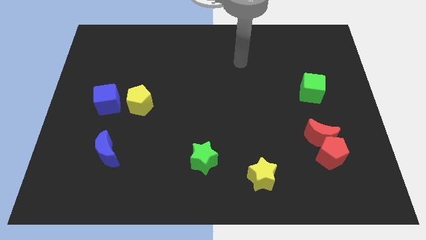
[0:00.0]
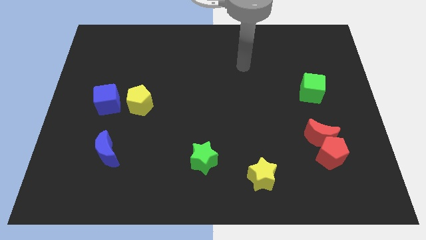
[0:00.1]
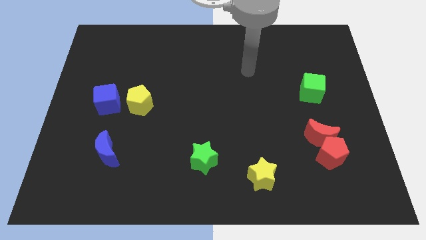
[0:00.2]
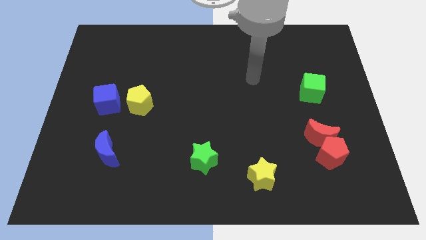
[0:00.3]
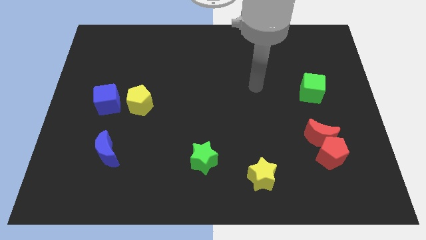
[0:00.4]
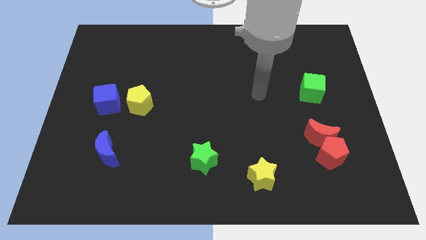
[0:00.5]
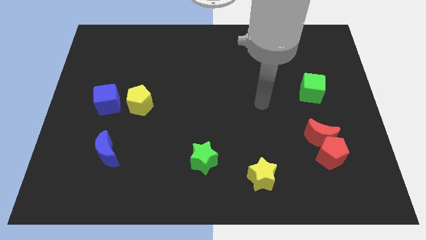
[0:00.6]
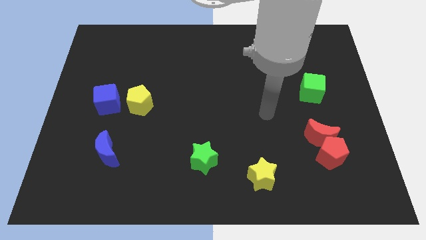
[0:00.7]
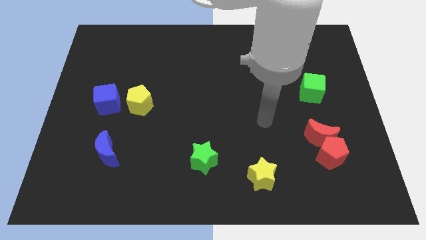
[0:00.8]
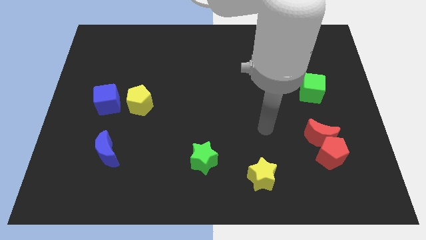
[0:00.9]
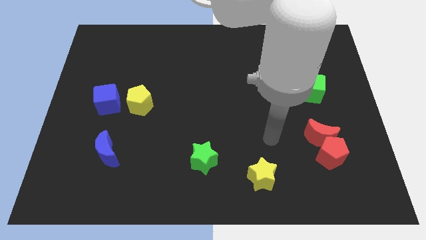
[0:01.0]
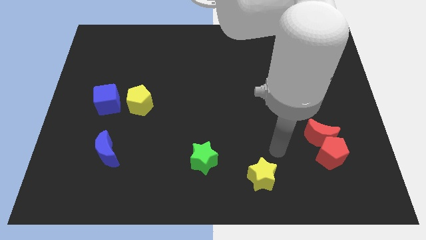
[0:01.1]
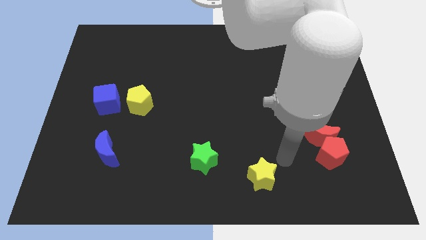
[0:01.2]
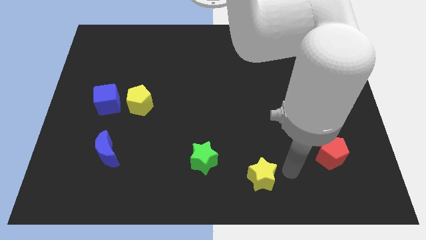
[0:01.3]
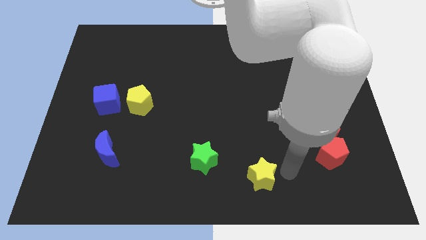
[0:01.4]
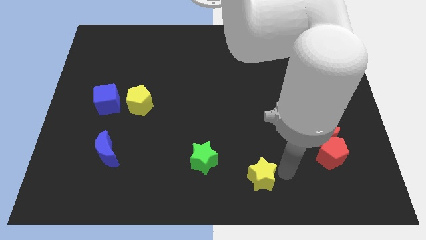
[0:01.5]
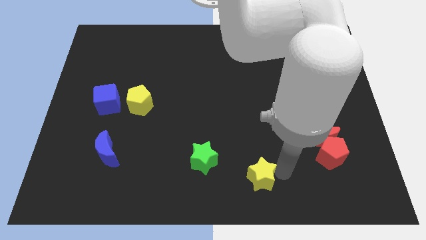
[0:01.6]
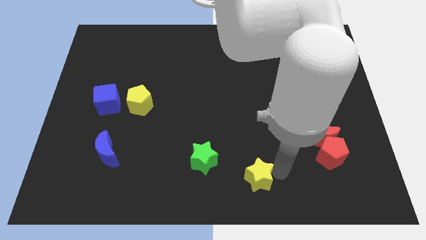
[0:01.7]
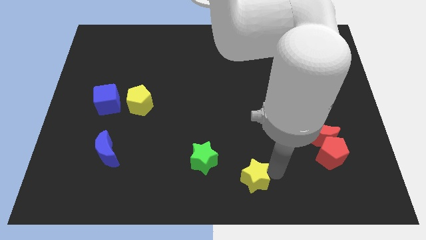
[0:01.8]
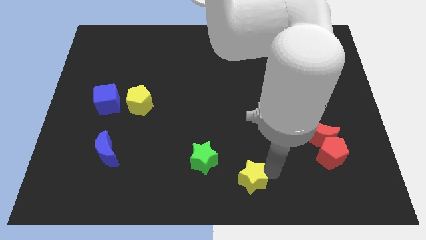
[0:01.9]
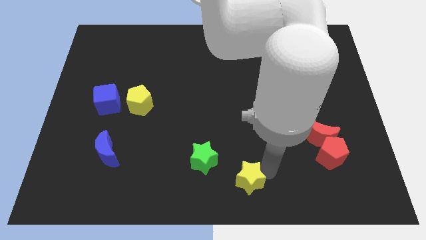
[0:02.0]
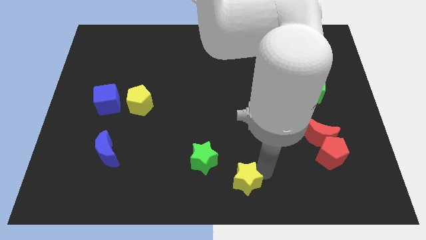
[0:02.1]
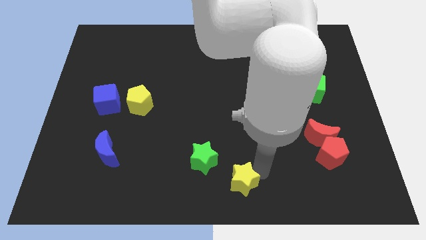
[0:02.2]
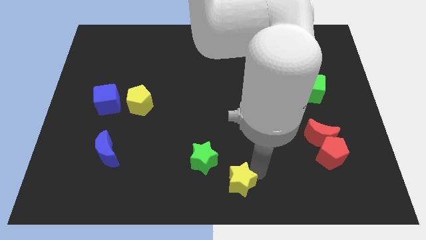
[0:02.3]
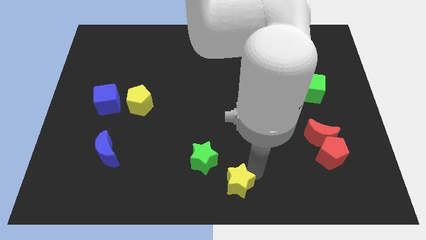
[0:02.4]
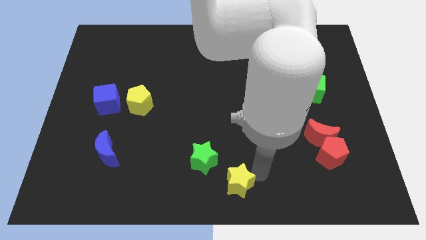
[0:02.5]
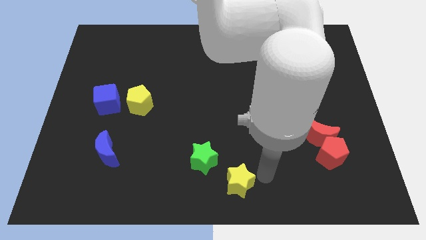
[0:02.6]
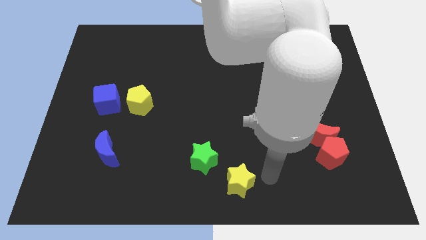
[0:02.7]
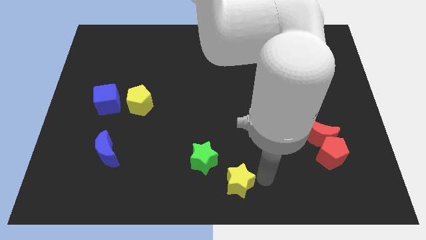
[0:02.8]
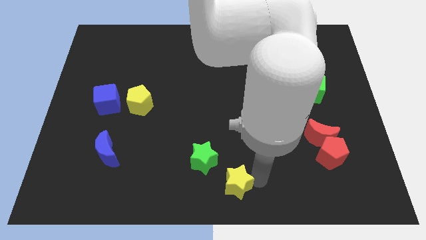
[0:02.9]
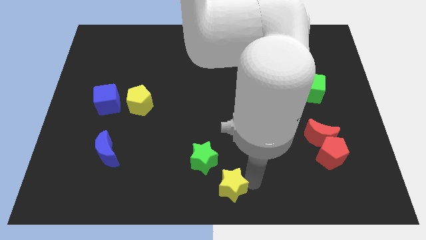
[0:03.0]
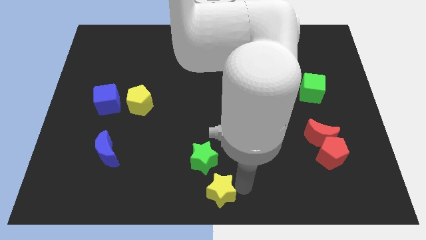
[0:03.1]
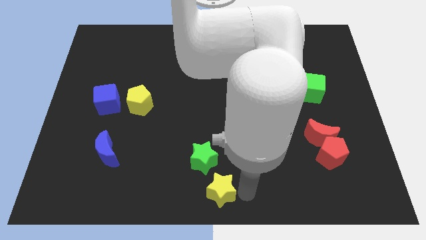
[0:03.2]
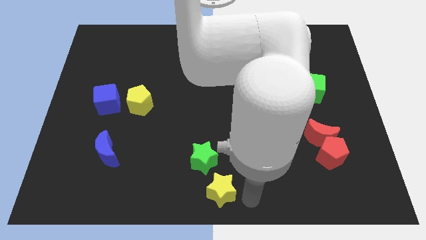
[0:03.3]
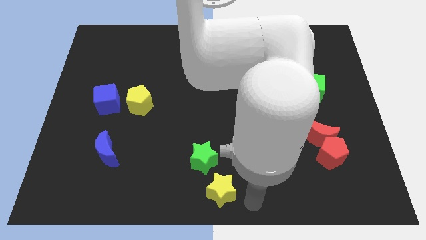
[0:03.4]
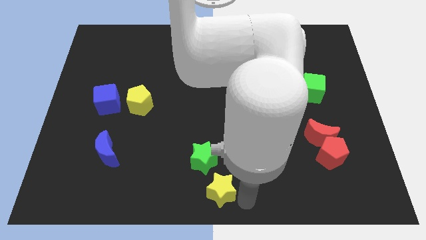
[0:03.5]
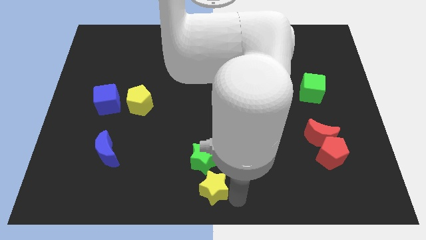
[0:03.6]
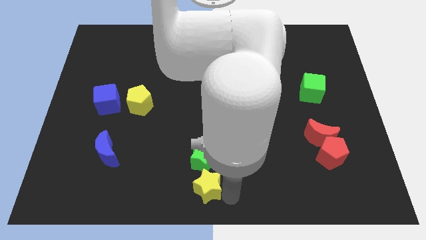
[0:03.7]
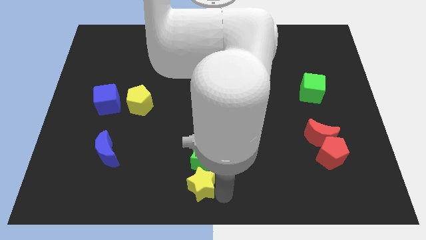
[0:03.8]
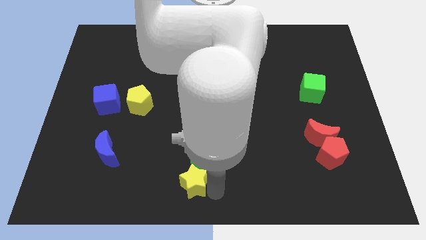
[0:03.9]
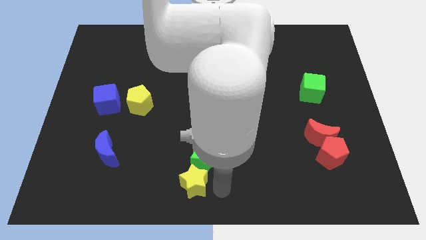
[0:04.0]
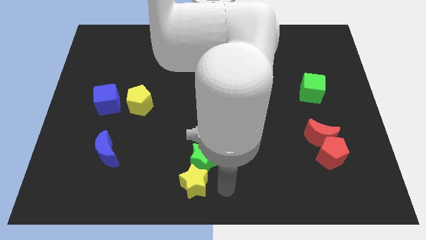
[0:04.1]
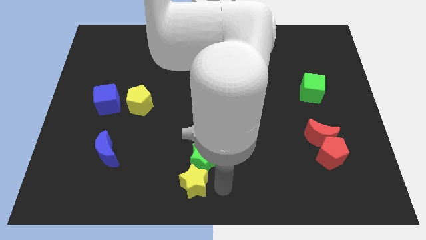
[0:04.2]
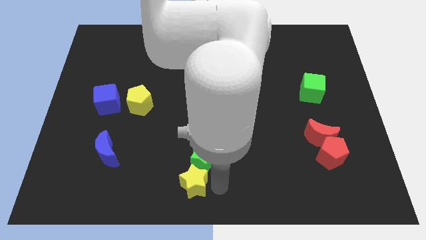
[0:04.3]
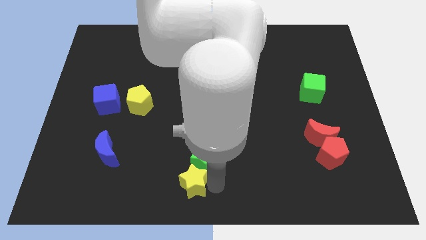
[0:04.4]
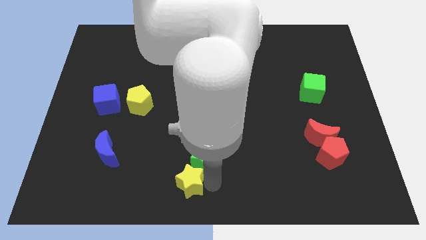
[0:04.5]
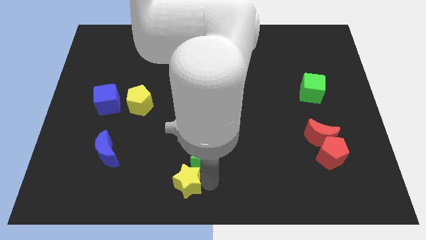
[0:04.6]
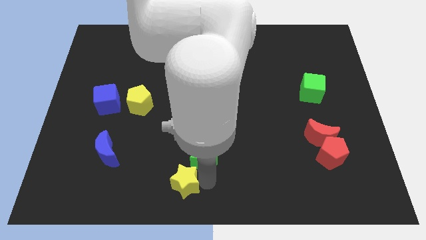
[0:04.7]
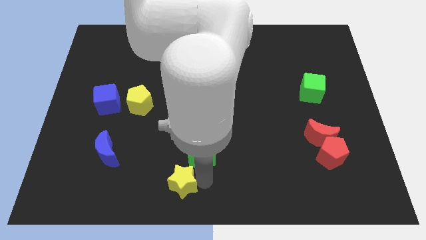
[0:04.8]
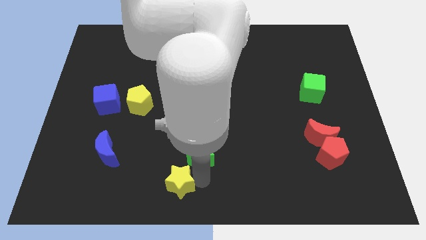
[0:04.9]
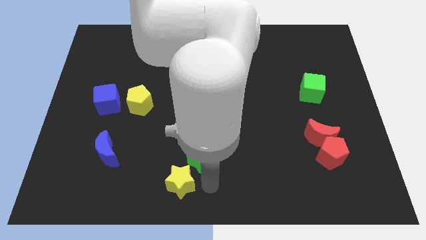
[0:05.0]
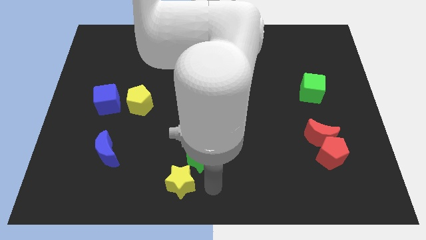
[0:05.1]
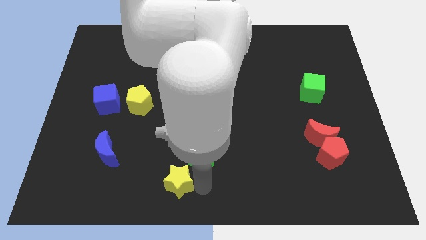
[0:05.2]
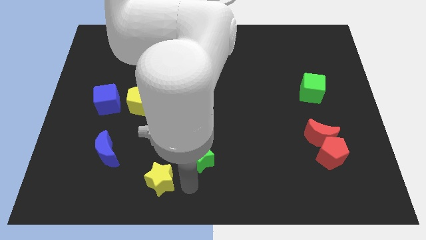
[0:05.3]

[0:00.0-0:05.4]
slide the yellow star to the left

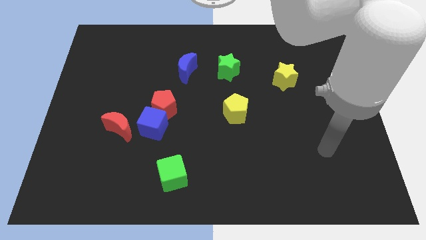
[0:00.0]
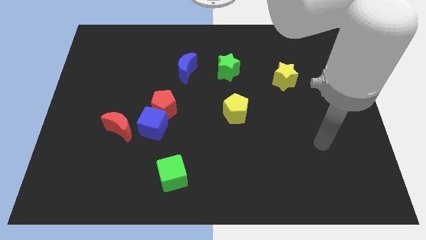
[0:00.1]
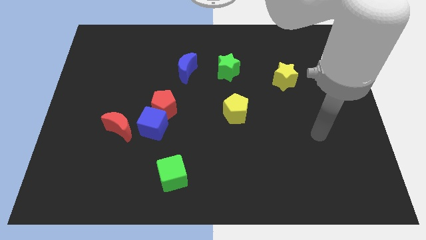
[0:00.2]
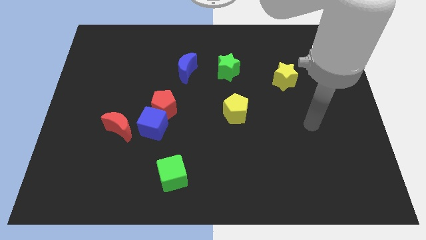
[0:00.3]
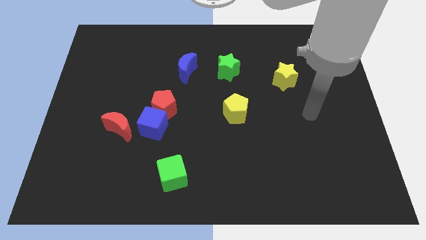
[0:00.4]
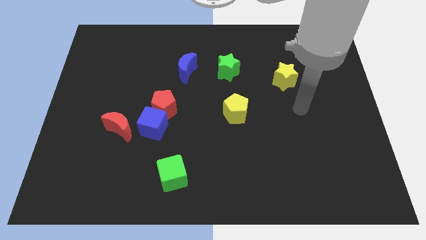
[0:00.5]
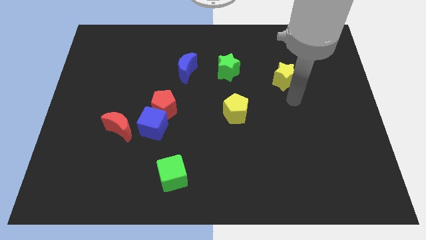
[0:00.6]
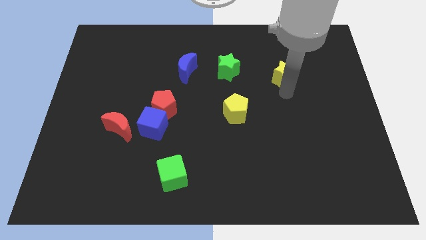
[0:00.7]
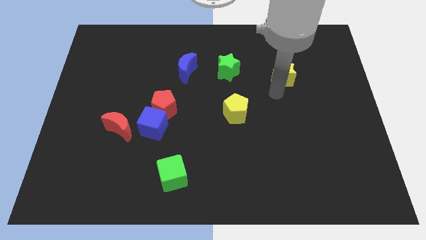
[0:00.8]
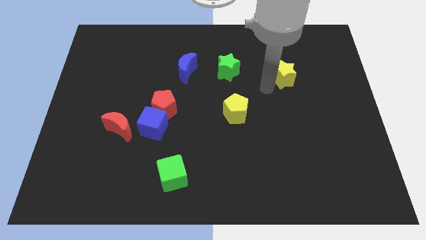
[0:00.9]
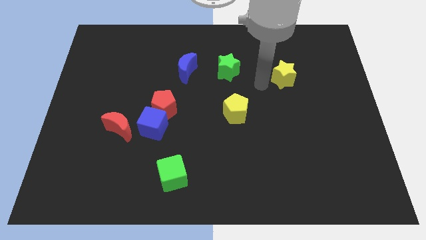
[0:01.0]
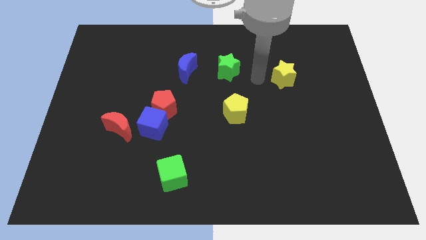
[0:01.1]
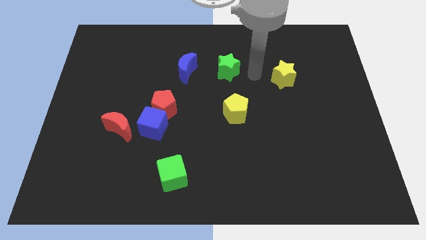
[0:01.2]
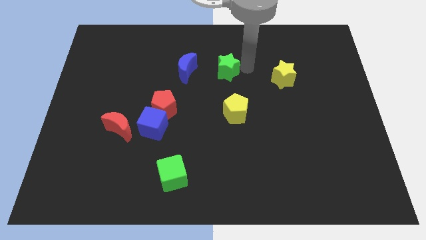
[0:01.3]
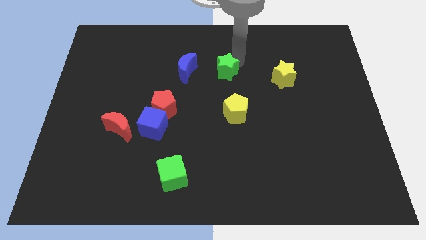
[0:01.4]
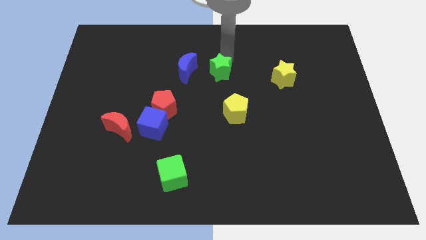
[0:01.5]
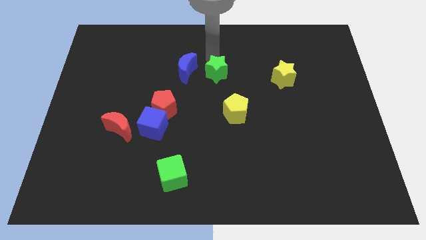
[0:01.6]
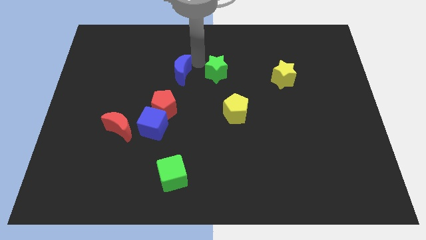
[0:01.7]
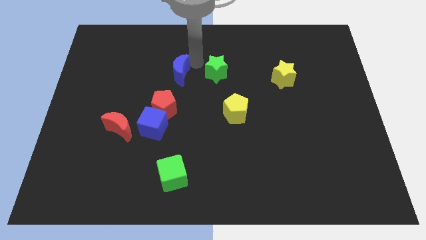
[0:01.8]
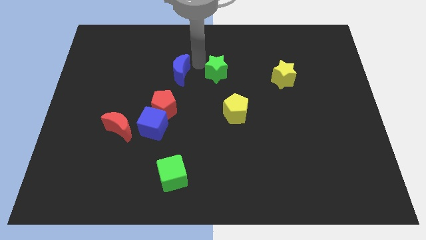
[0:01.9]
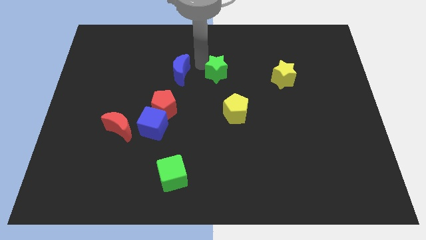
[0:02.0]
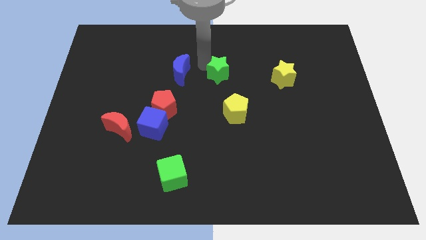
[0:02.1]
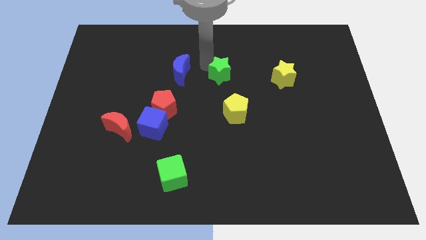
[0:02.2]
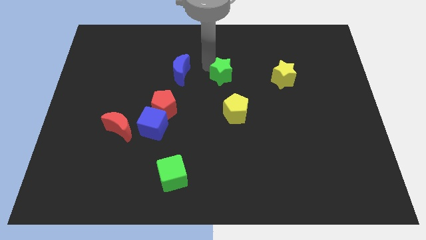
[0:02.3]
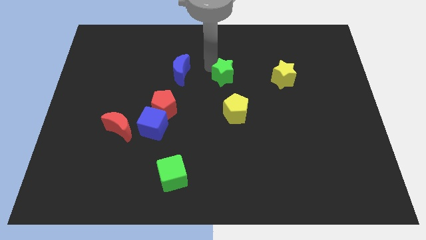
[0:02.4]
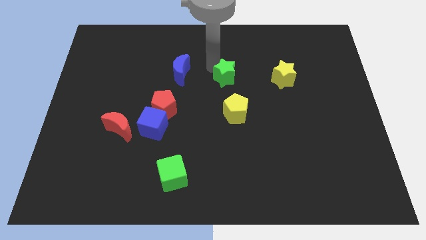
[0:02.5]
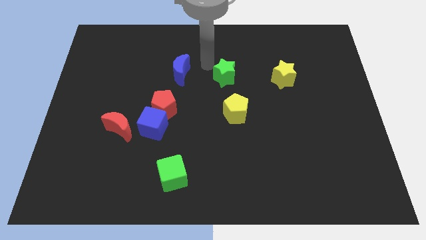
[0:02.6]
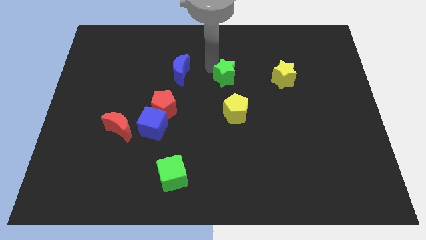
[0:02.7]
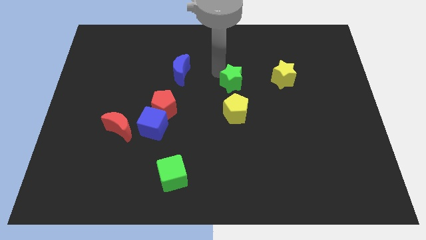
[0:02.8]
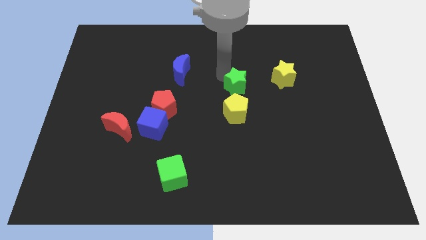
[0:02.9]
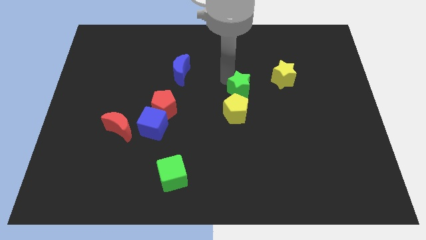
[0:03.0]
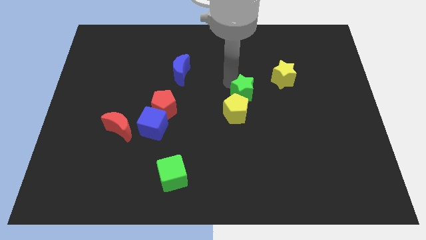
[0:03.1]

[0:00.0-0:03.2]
push the green star slightly downwards and then right
